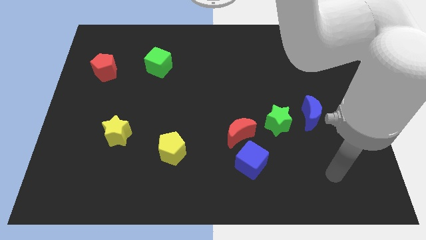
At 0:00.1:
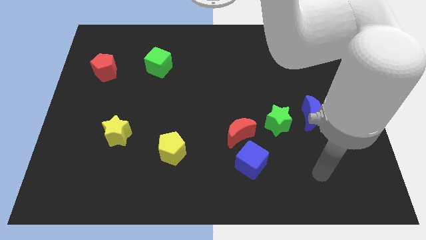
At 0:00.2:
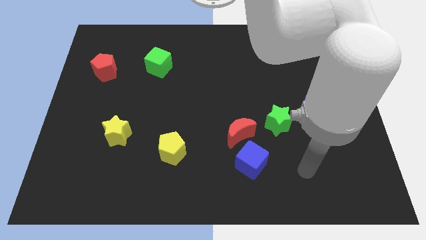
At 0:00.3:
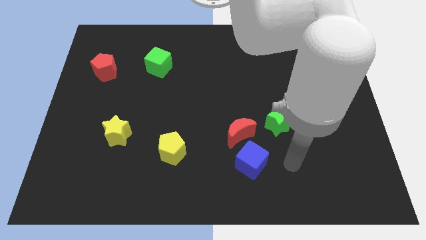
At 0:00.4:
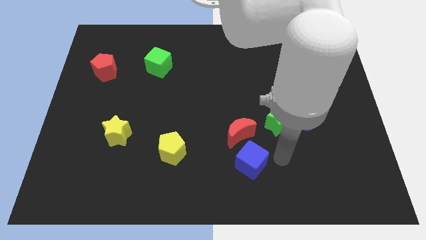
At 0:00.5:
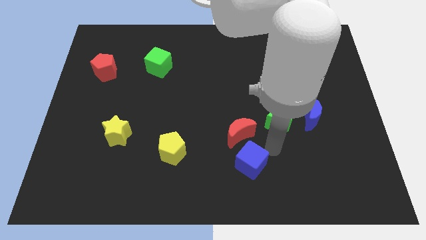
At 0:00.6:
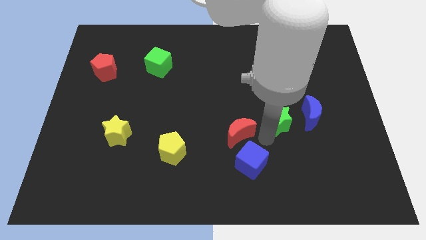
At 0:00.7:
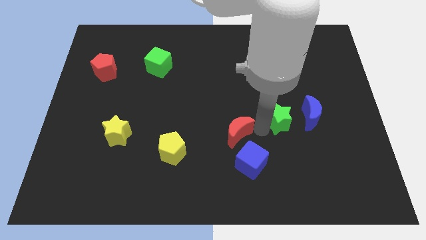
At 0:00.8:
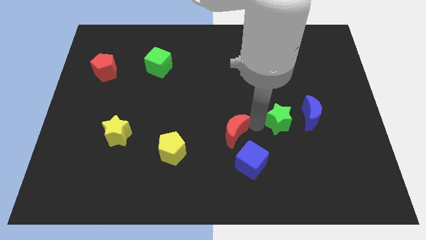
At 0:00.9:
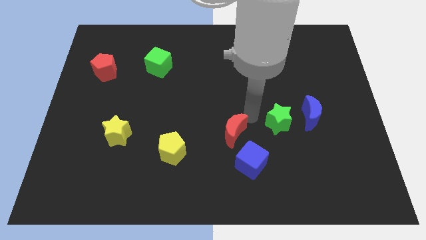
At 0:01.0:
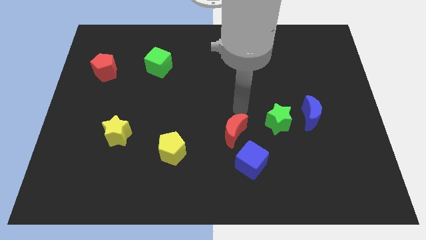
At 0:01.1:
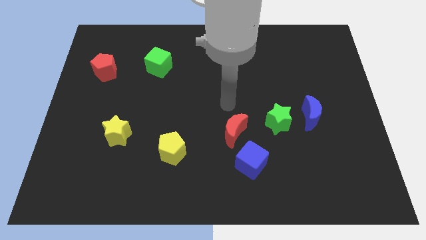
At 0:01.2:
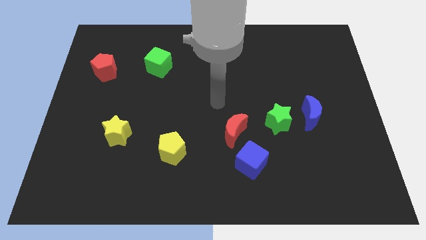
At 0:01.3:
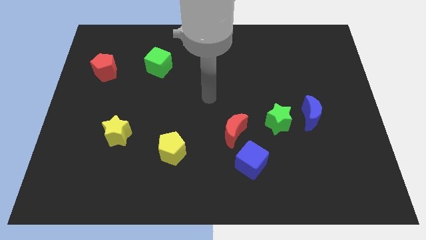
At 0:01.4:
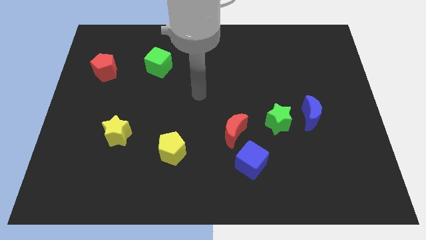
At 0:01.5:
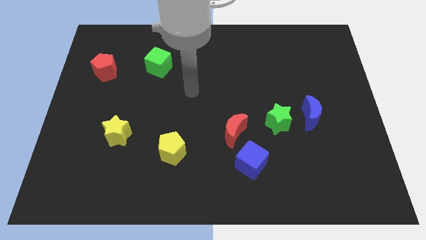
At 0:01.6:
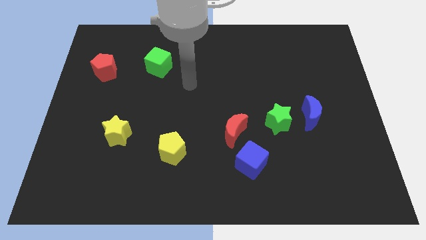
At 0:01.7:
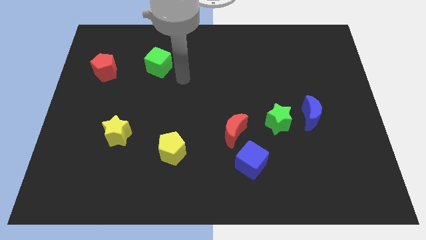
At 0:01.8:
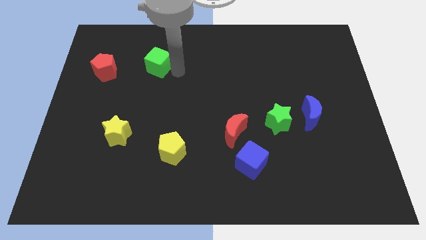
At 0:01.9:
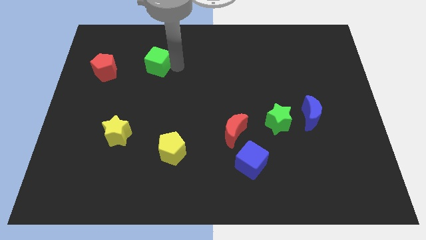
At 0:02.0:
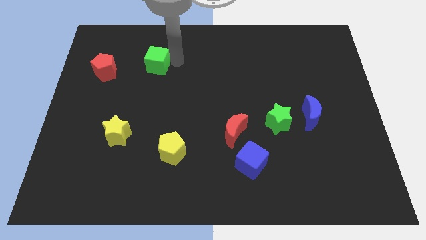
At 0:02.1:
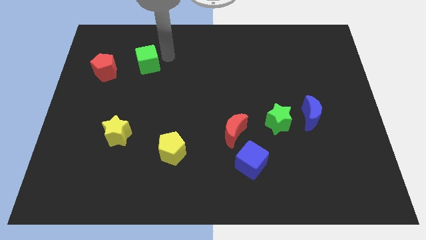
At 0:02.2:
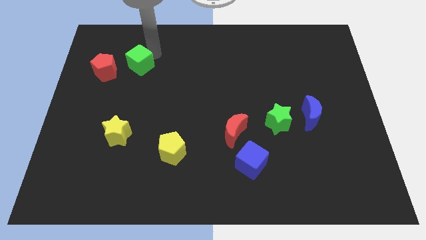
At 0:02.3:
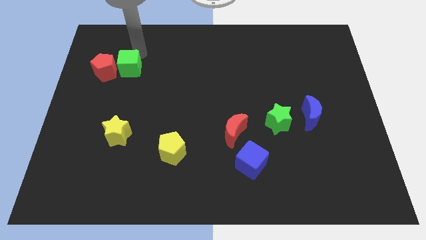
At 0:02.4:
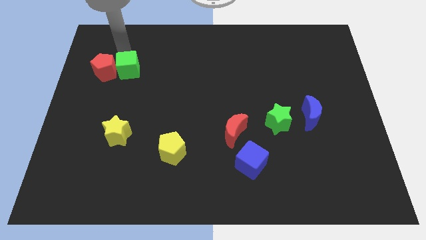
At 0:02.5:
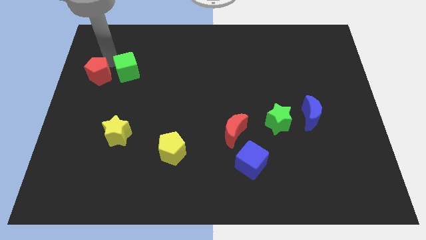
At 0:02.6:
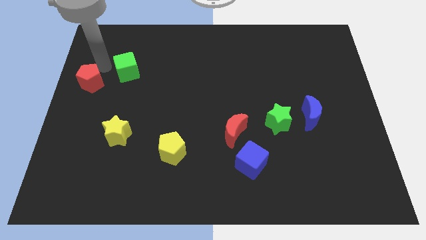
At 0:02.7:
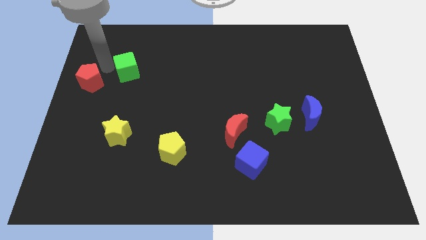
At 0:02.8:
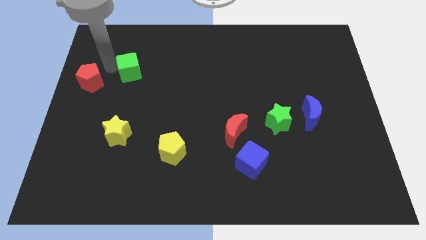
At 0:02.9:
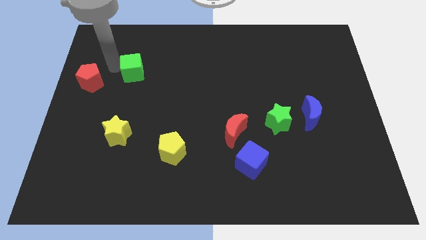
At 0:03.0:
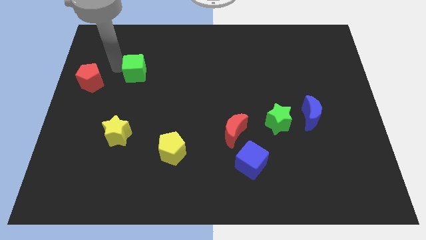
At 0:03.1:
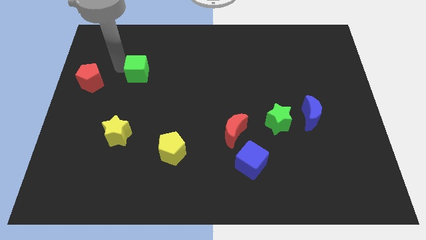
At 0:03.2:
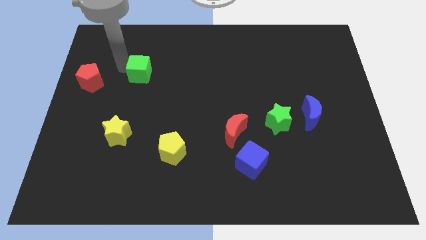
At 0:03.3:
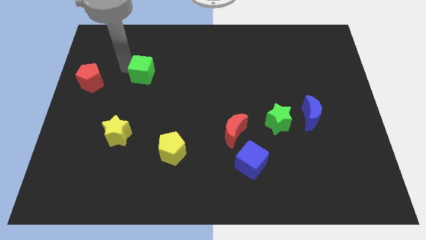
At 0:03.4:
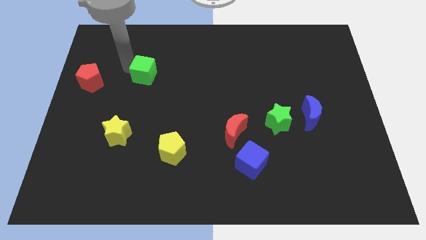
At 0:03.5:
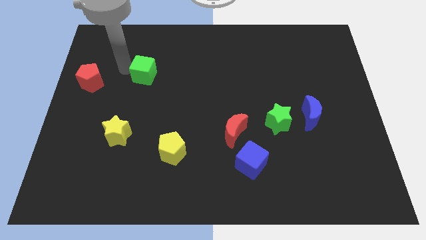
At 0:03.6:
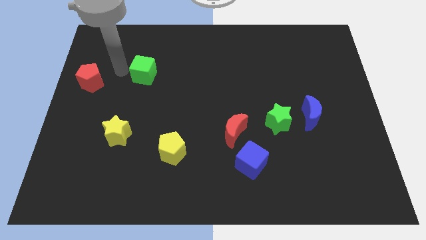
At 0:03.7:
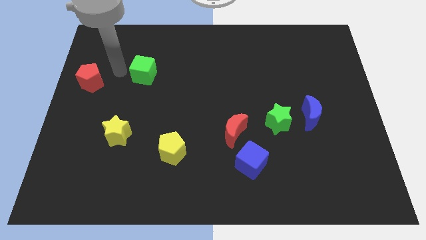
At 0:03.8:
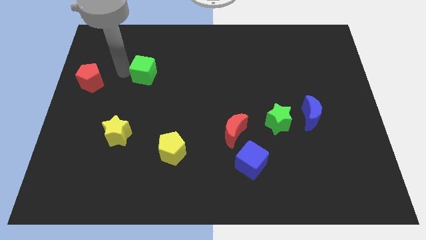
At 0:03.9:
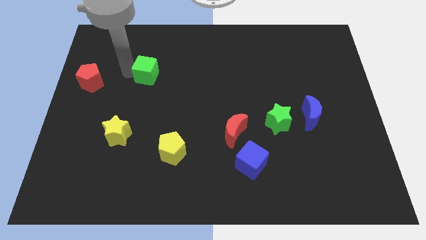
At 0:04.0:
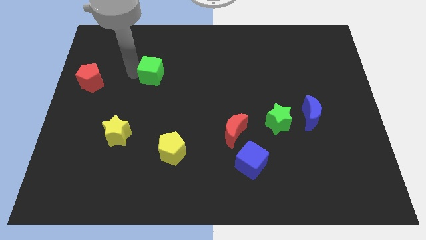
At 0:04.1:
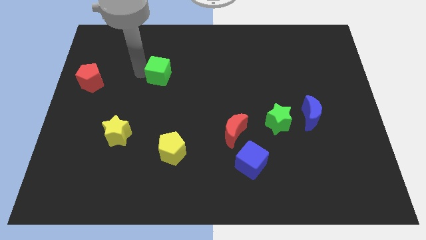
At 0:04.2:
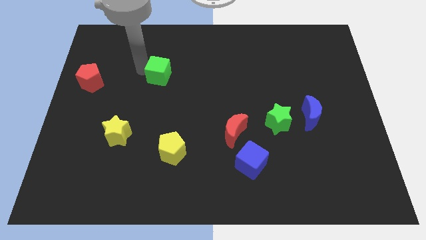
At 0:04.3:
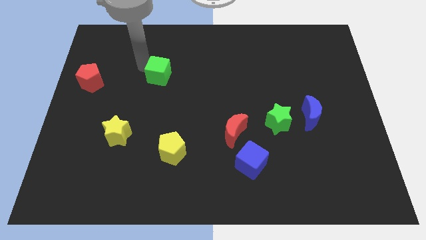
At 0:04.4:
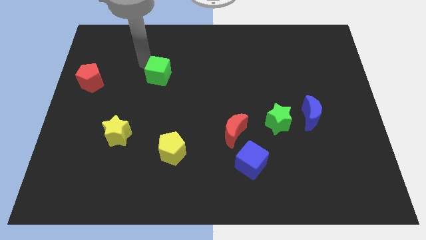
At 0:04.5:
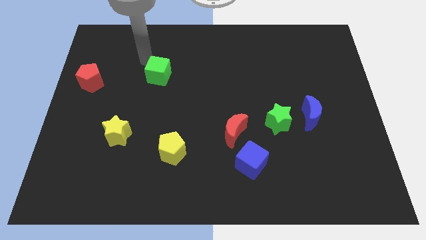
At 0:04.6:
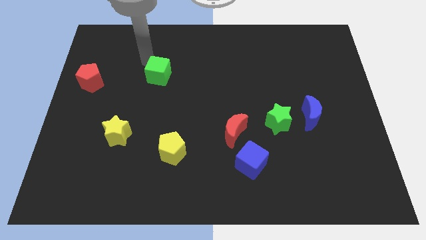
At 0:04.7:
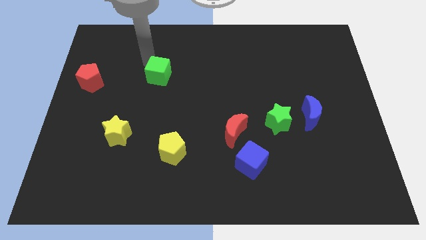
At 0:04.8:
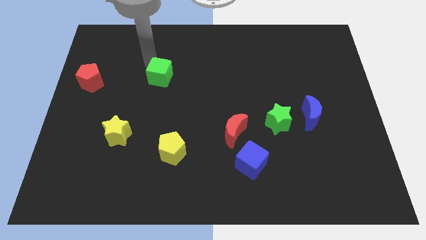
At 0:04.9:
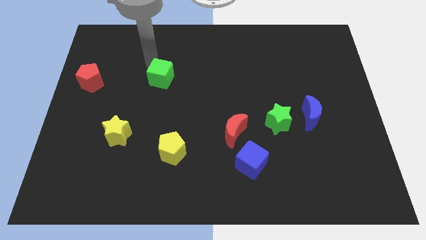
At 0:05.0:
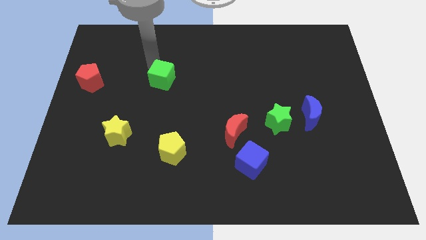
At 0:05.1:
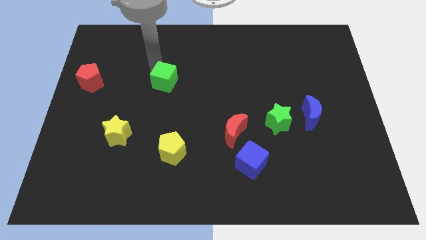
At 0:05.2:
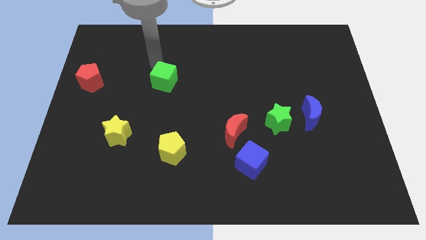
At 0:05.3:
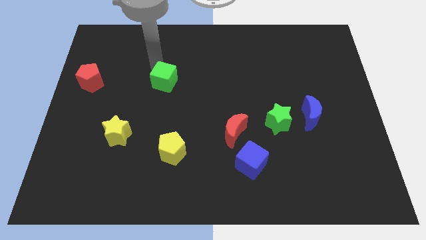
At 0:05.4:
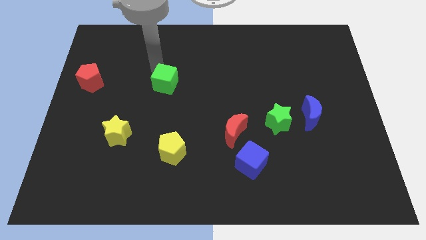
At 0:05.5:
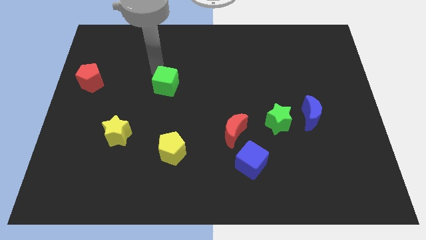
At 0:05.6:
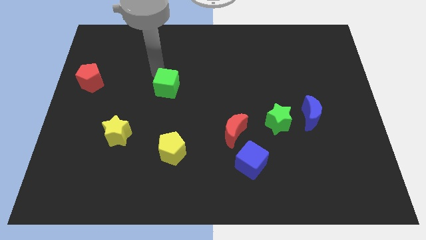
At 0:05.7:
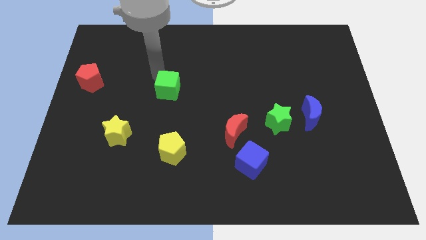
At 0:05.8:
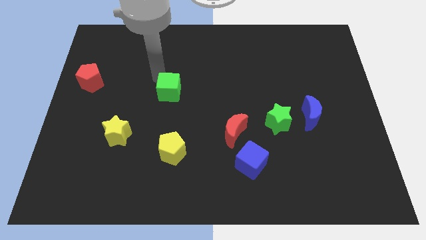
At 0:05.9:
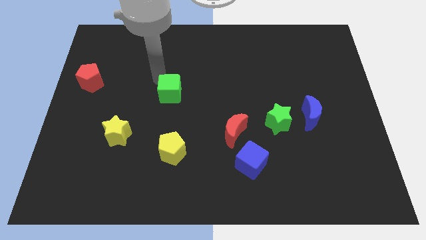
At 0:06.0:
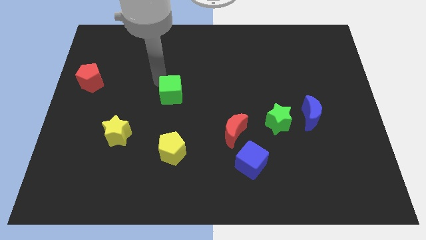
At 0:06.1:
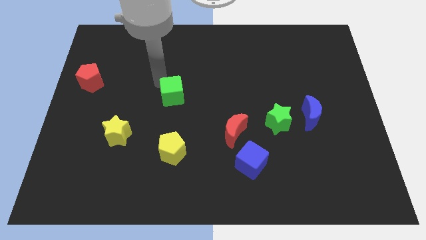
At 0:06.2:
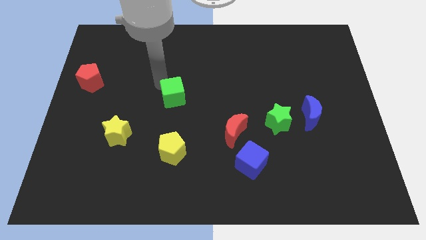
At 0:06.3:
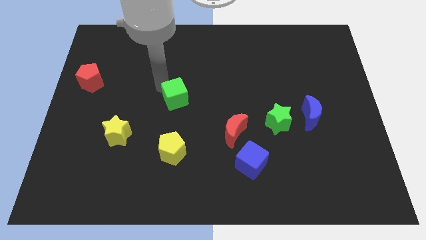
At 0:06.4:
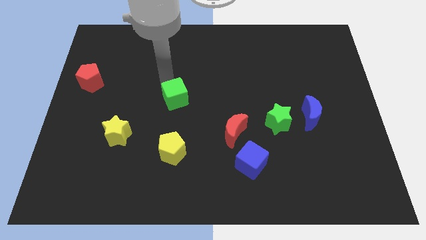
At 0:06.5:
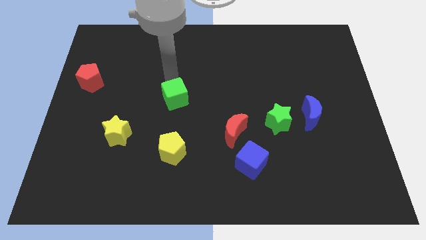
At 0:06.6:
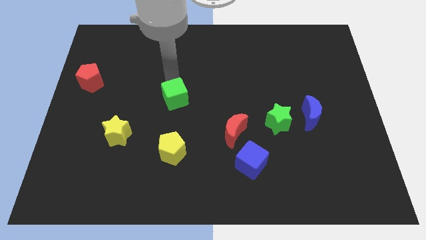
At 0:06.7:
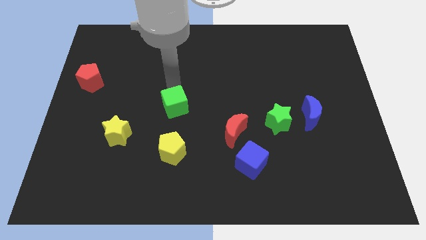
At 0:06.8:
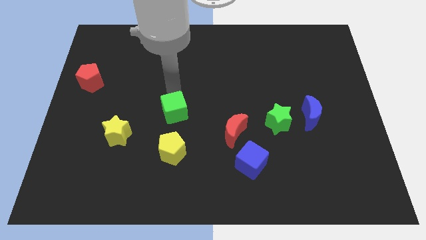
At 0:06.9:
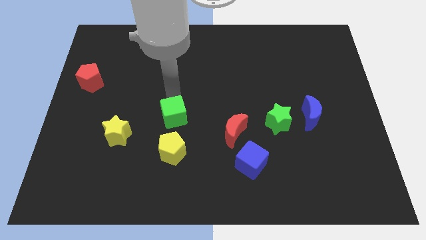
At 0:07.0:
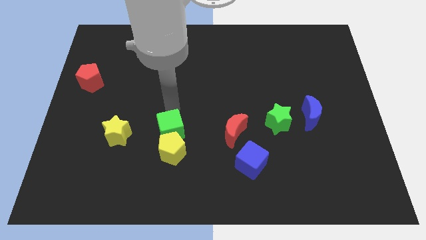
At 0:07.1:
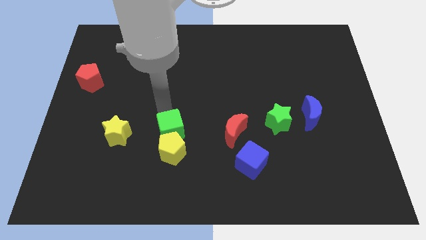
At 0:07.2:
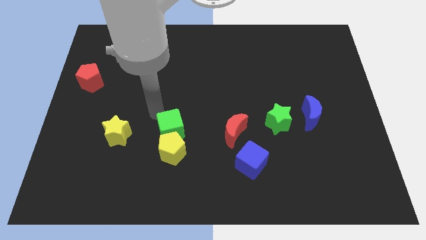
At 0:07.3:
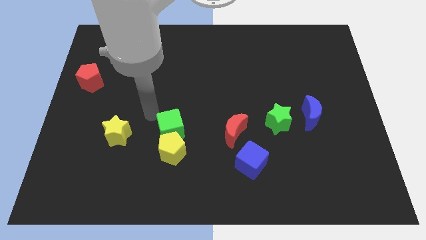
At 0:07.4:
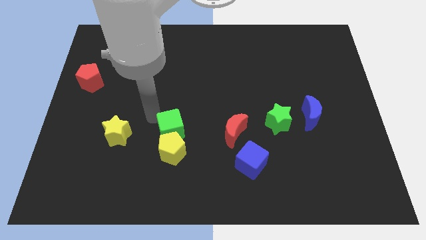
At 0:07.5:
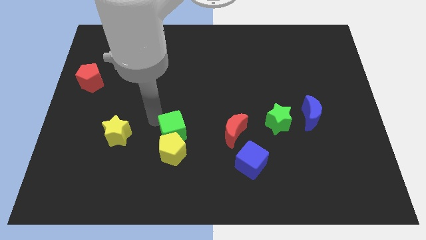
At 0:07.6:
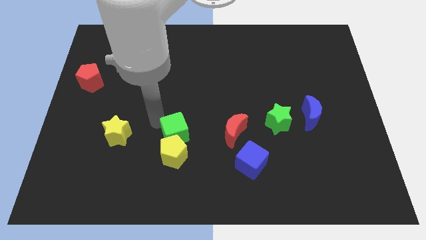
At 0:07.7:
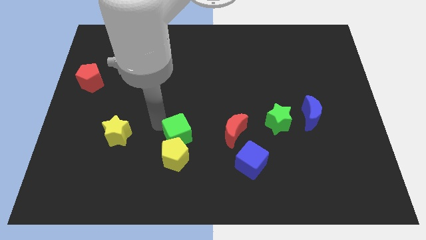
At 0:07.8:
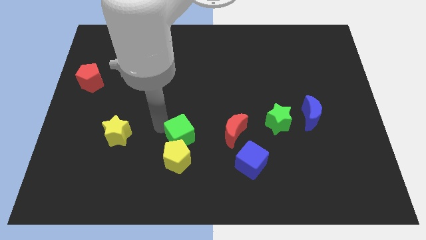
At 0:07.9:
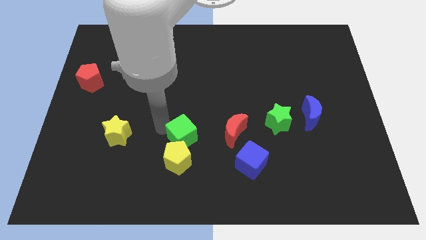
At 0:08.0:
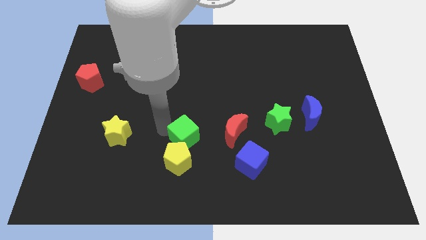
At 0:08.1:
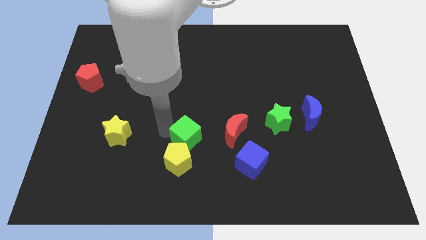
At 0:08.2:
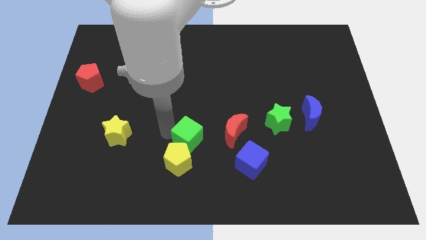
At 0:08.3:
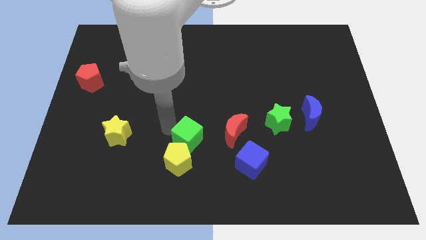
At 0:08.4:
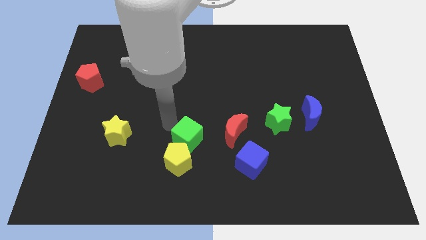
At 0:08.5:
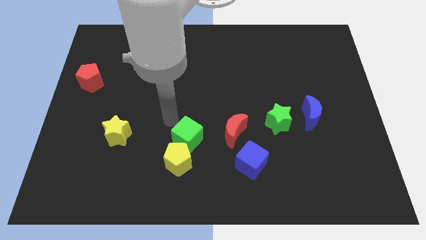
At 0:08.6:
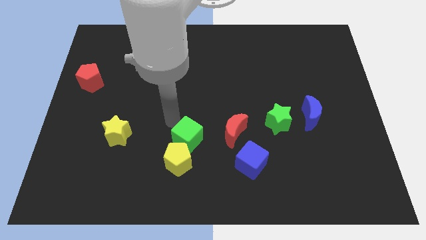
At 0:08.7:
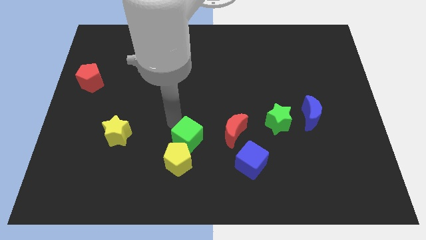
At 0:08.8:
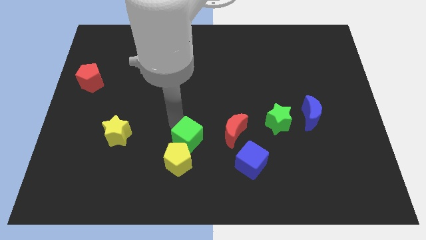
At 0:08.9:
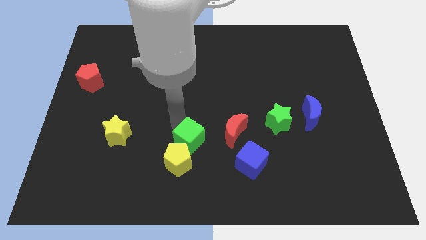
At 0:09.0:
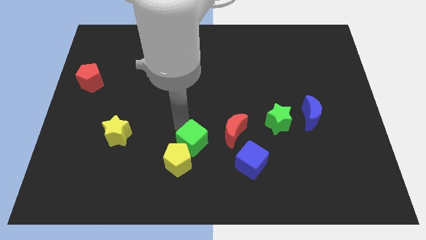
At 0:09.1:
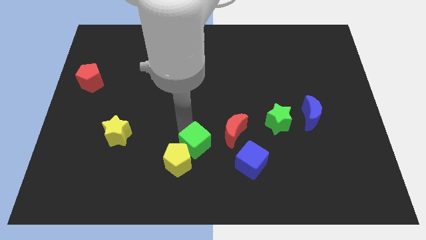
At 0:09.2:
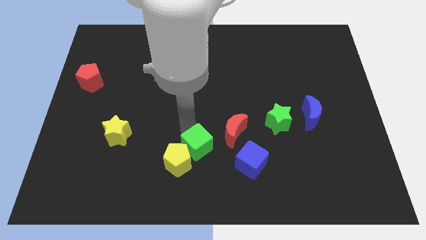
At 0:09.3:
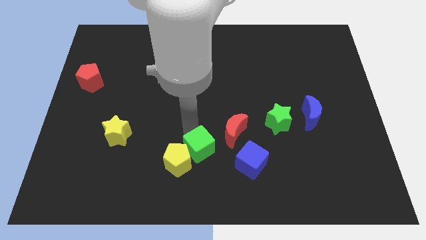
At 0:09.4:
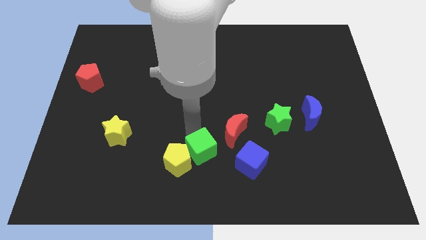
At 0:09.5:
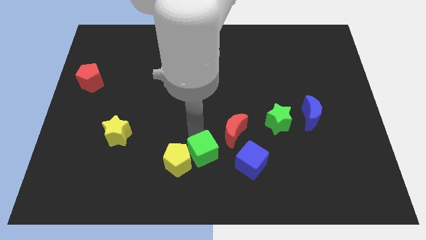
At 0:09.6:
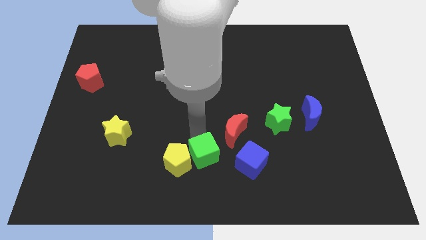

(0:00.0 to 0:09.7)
push the green cube to the bottom side
